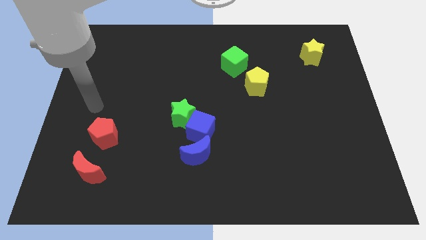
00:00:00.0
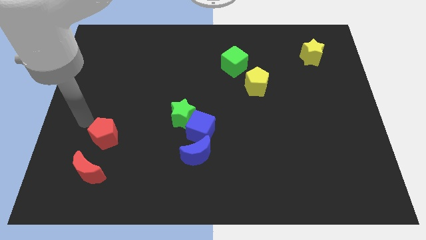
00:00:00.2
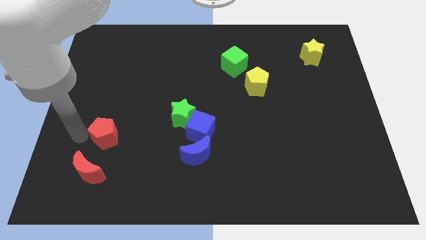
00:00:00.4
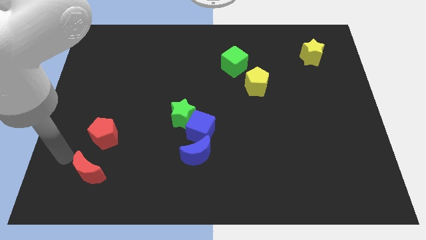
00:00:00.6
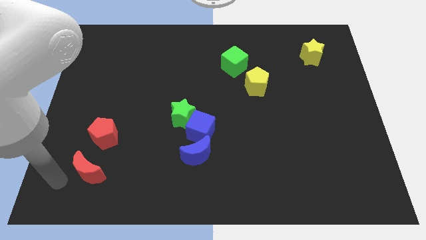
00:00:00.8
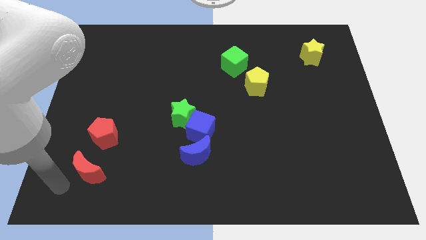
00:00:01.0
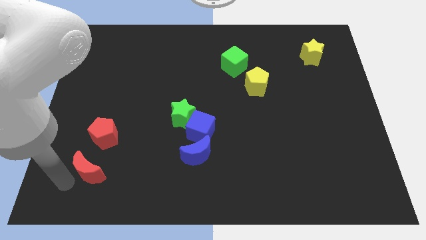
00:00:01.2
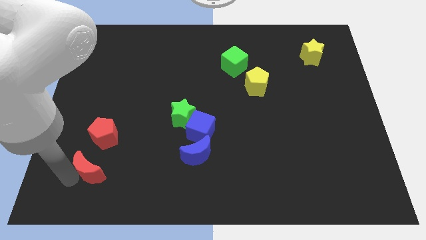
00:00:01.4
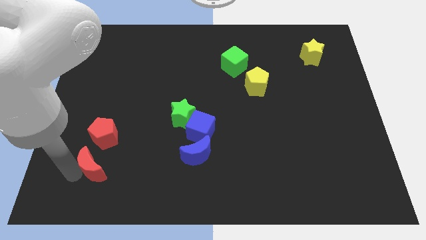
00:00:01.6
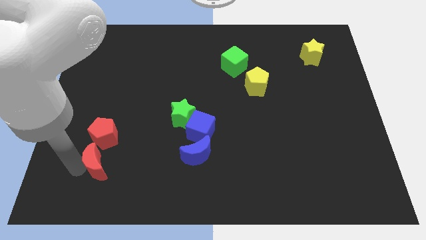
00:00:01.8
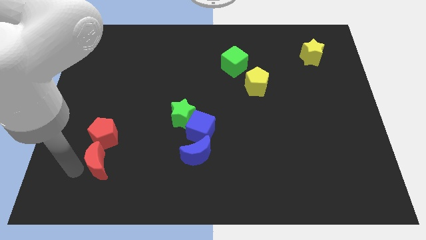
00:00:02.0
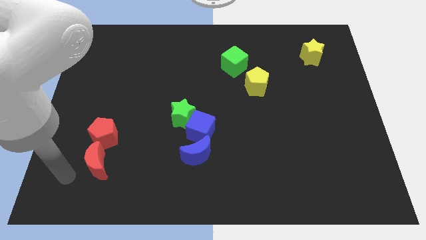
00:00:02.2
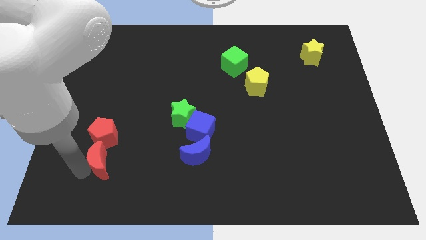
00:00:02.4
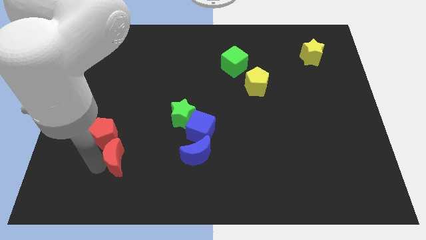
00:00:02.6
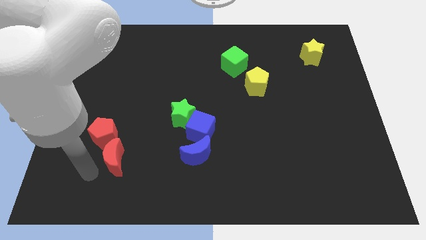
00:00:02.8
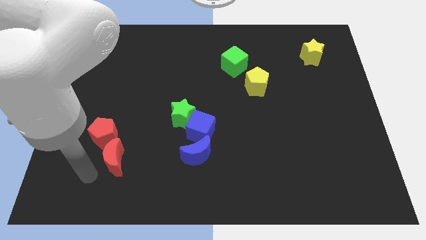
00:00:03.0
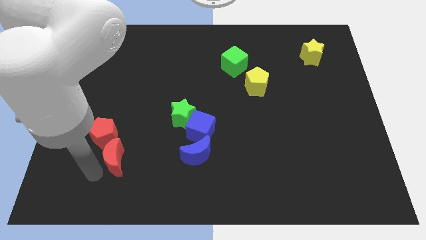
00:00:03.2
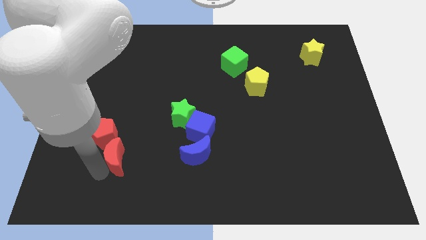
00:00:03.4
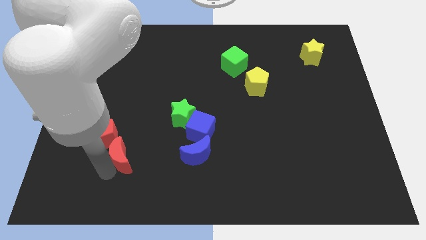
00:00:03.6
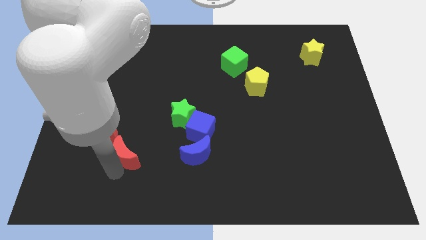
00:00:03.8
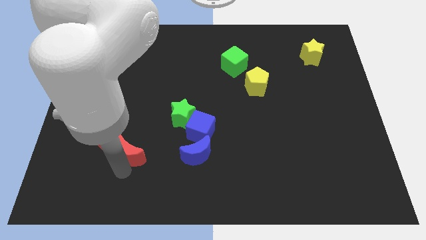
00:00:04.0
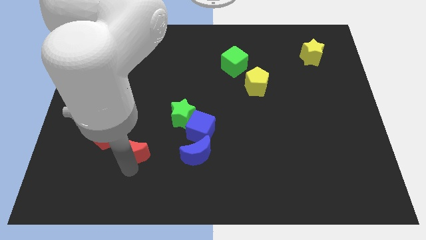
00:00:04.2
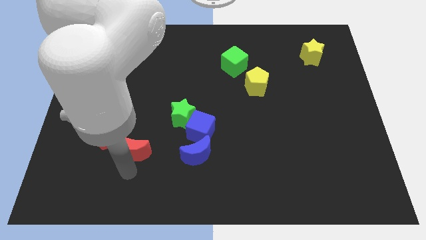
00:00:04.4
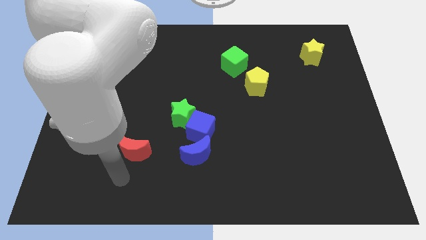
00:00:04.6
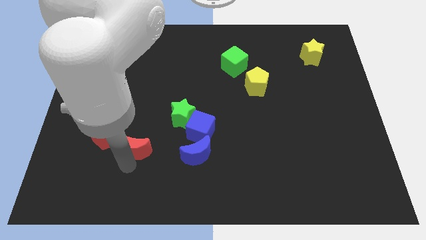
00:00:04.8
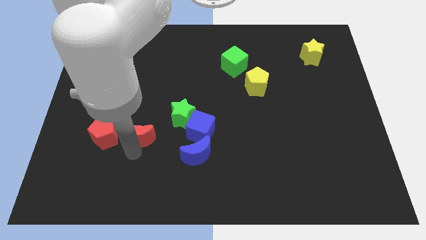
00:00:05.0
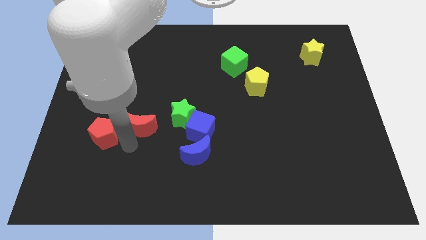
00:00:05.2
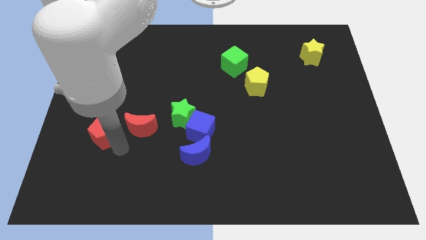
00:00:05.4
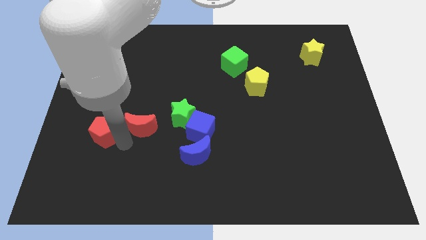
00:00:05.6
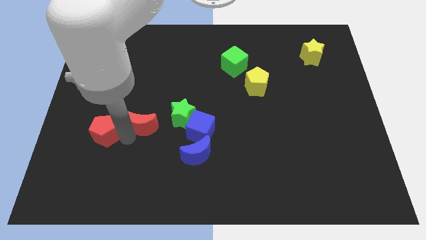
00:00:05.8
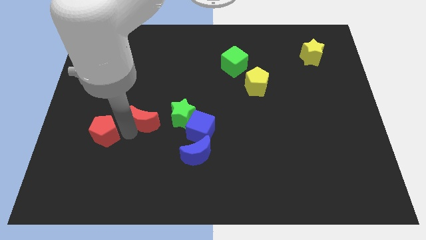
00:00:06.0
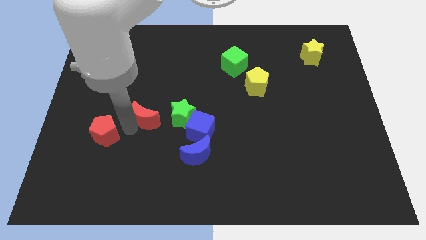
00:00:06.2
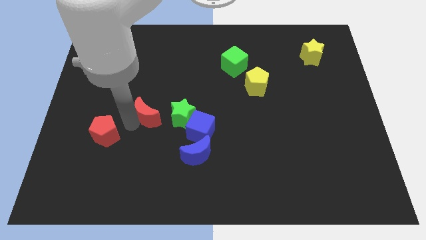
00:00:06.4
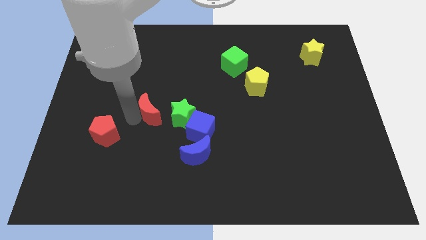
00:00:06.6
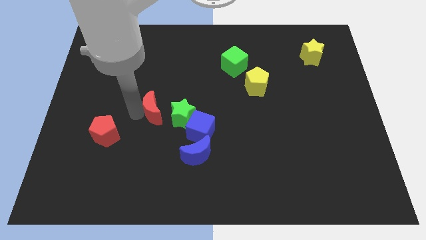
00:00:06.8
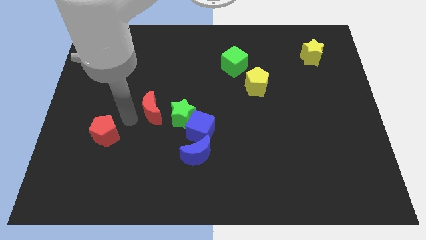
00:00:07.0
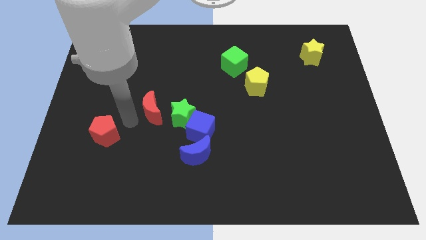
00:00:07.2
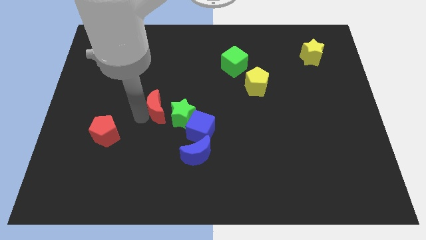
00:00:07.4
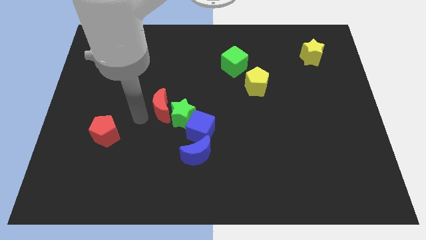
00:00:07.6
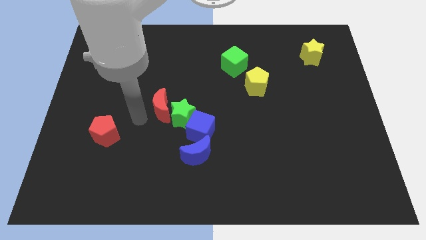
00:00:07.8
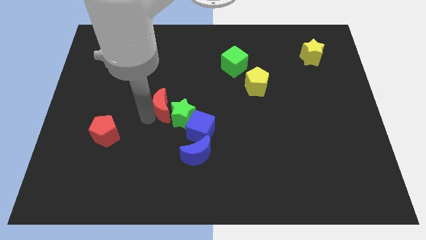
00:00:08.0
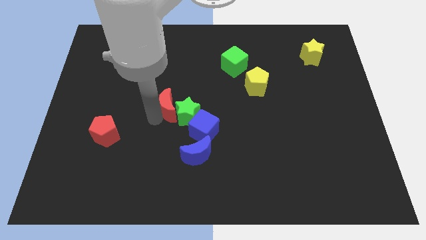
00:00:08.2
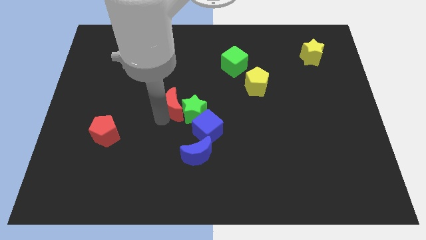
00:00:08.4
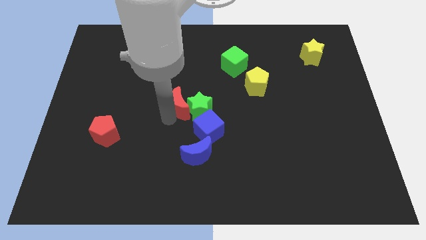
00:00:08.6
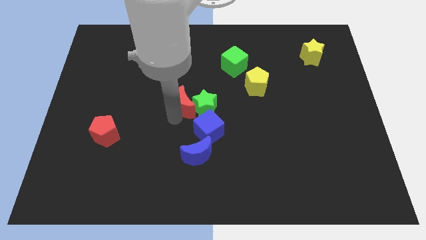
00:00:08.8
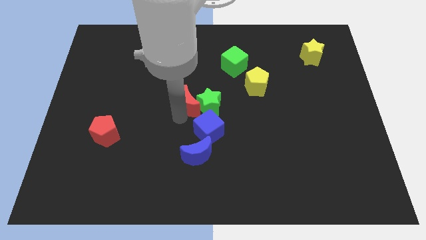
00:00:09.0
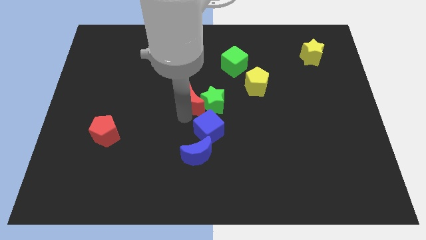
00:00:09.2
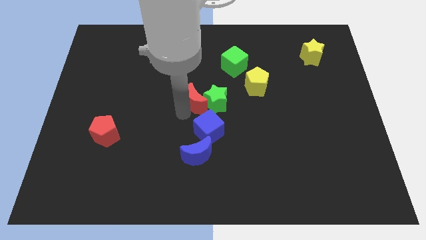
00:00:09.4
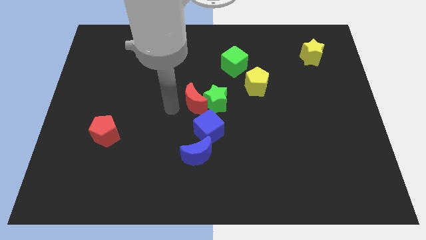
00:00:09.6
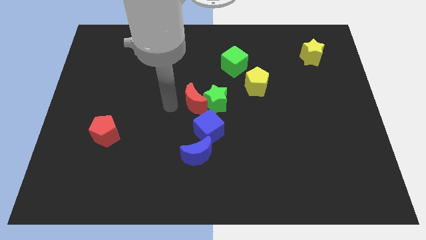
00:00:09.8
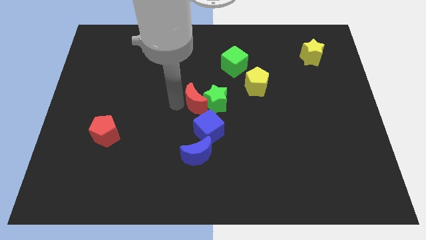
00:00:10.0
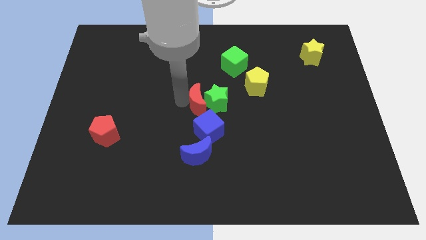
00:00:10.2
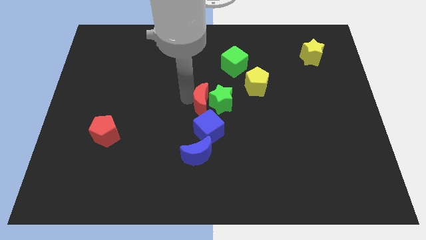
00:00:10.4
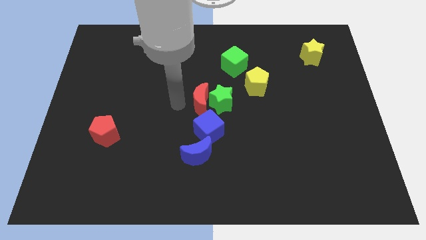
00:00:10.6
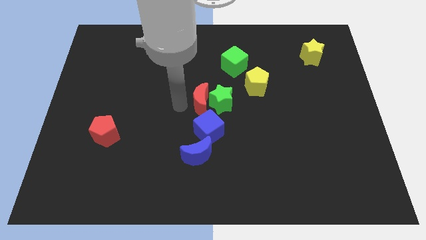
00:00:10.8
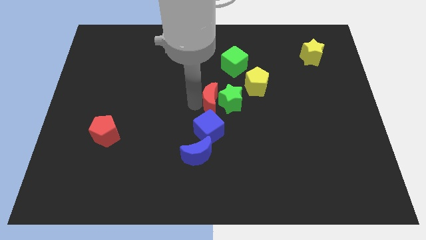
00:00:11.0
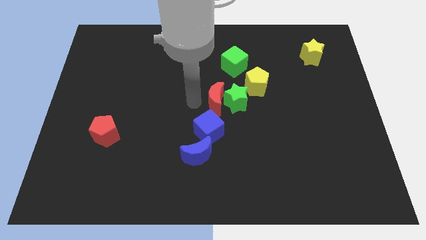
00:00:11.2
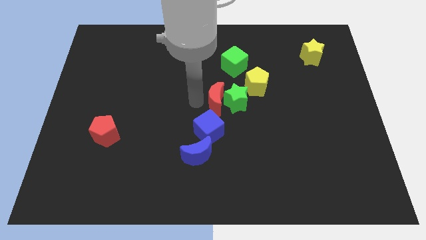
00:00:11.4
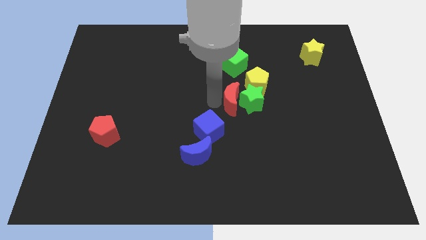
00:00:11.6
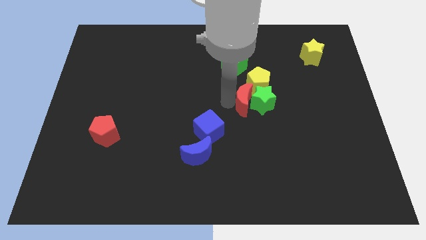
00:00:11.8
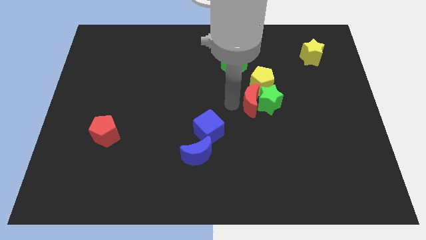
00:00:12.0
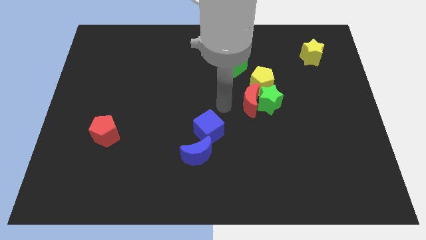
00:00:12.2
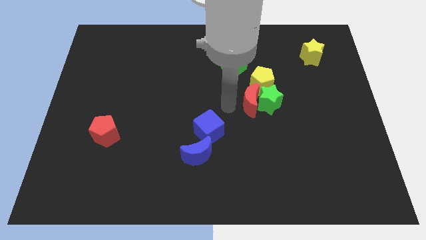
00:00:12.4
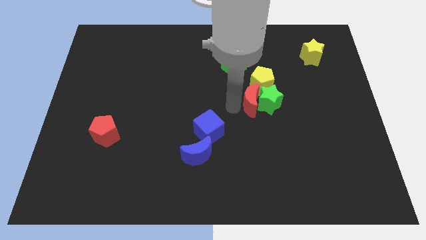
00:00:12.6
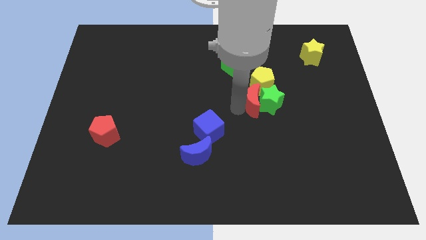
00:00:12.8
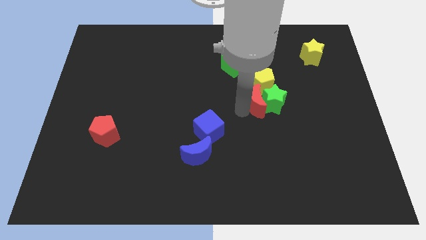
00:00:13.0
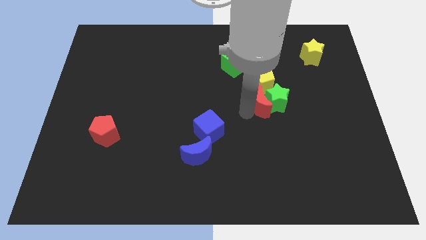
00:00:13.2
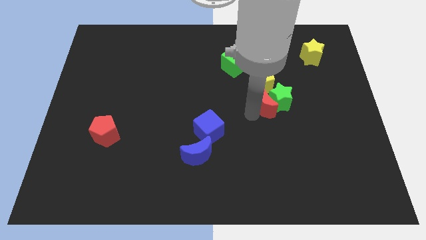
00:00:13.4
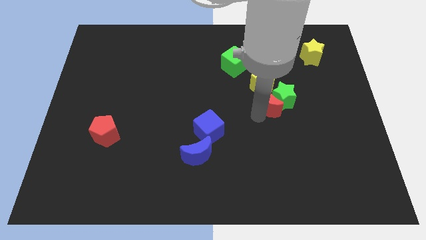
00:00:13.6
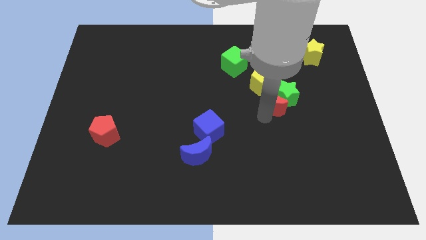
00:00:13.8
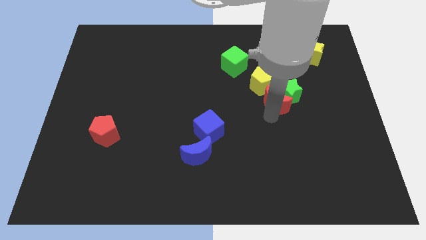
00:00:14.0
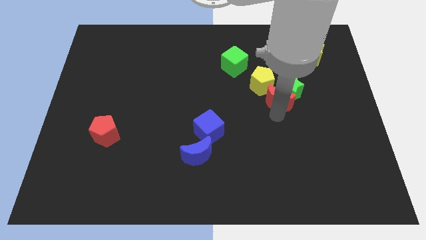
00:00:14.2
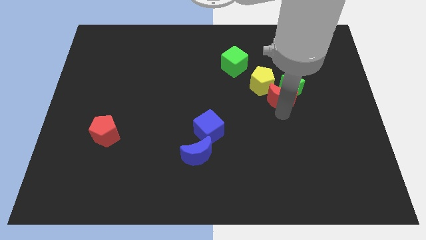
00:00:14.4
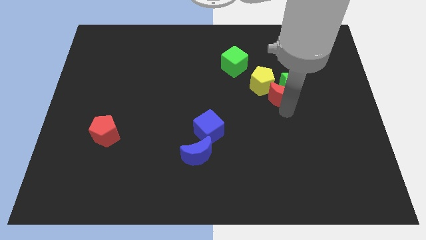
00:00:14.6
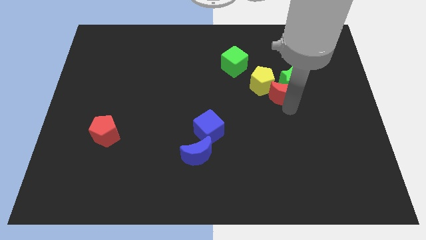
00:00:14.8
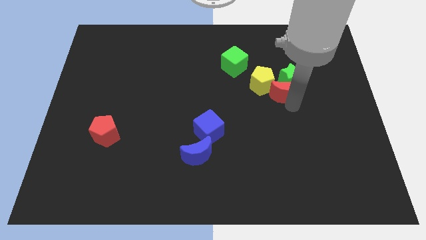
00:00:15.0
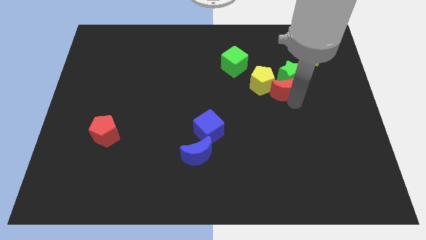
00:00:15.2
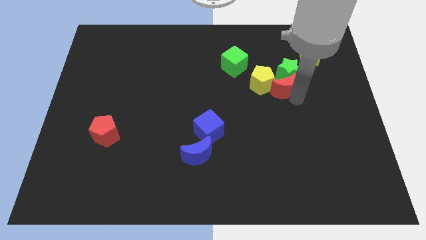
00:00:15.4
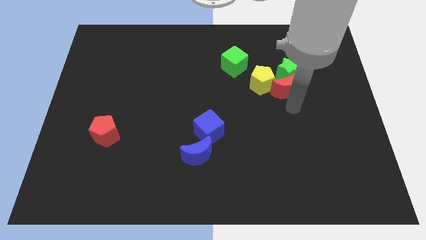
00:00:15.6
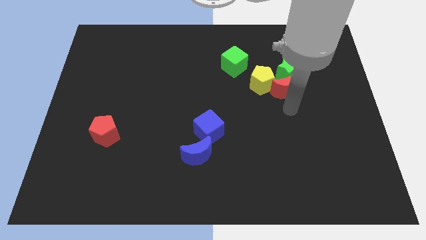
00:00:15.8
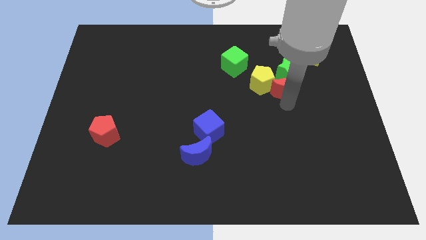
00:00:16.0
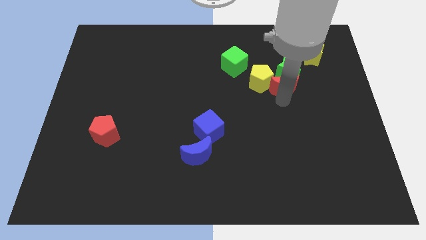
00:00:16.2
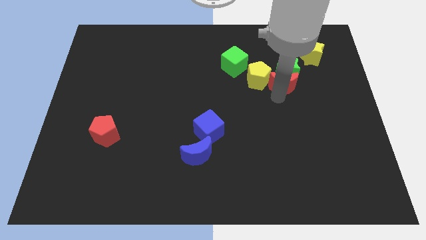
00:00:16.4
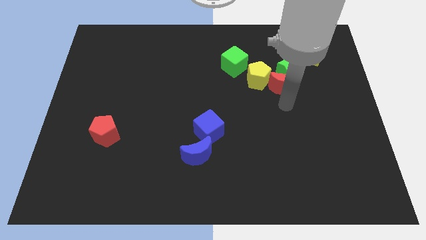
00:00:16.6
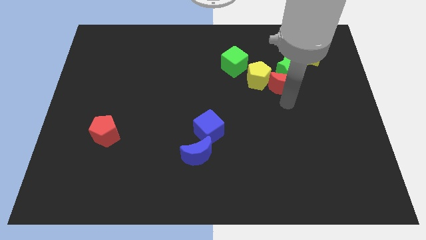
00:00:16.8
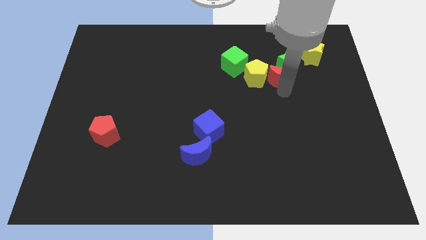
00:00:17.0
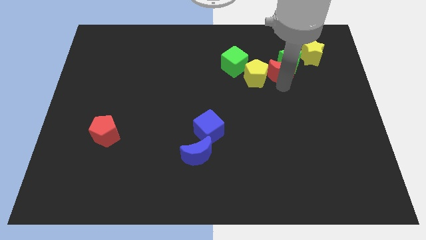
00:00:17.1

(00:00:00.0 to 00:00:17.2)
put the red moon diagonally up and to the right of the yellow pentagon
